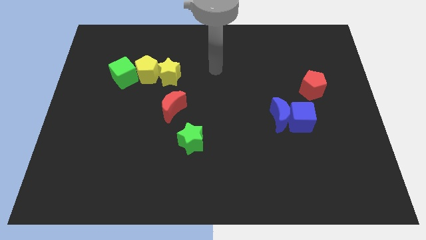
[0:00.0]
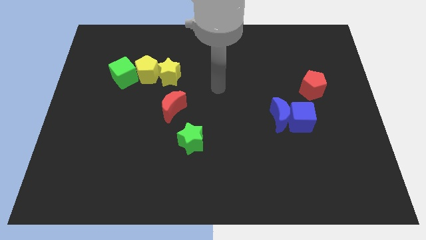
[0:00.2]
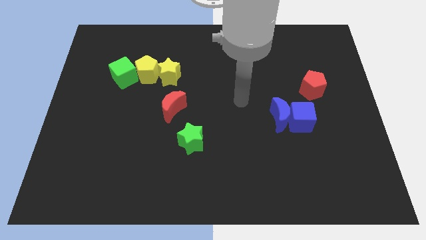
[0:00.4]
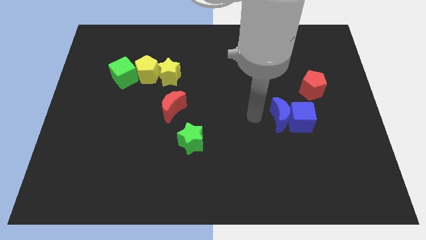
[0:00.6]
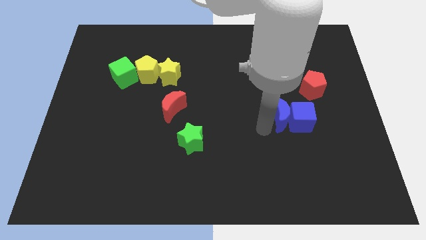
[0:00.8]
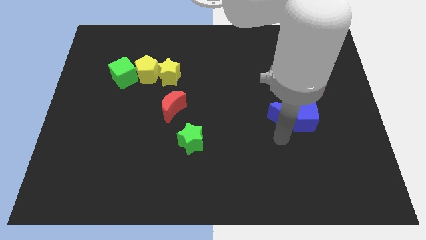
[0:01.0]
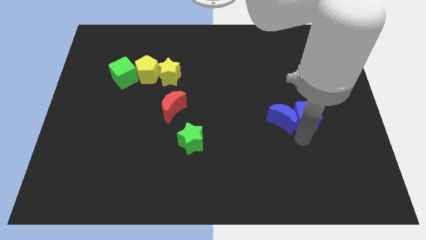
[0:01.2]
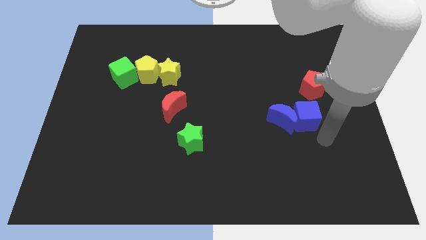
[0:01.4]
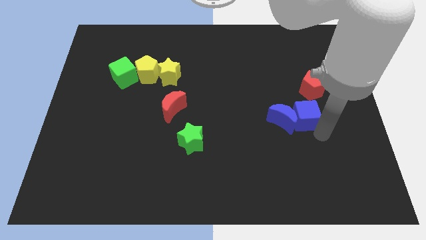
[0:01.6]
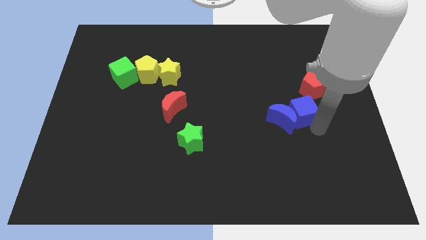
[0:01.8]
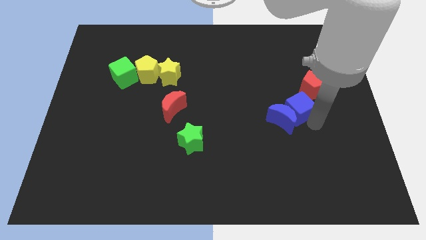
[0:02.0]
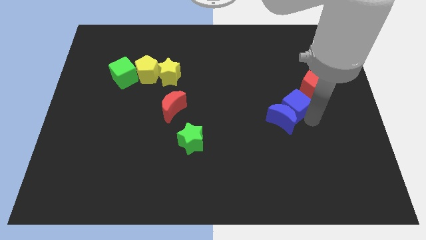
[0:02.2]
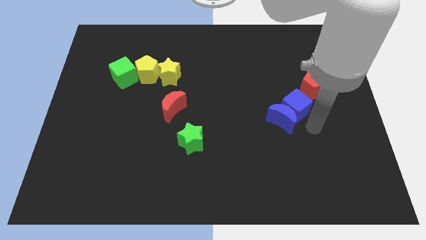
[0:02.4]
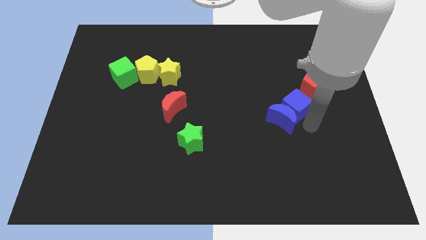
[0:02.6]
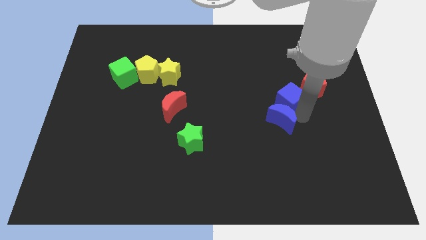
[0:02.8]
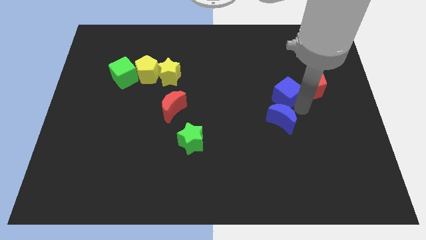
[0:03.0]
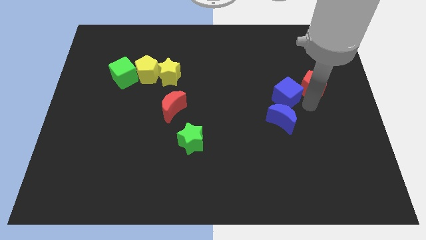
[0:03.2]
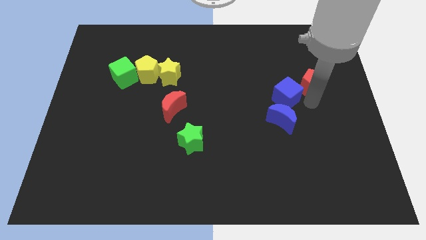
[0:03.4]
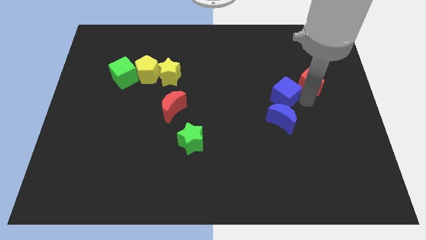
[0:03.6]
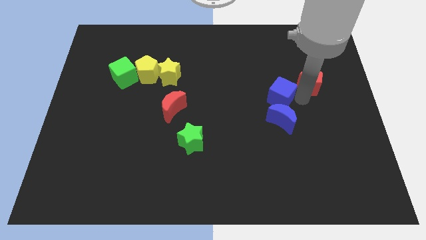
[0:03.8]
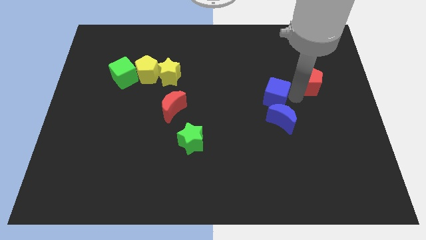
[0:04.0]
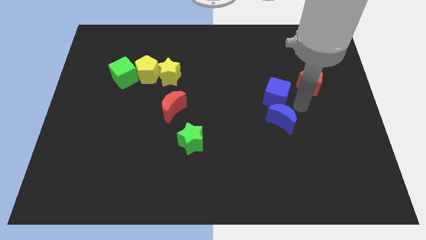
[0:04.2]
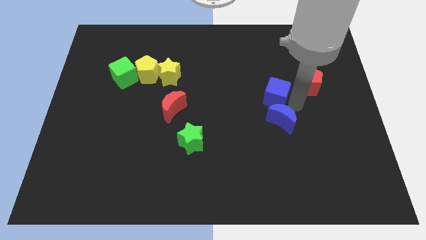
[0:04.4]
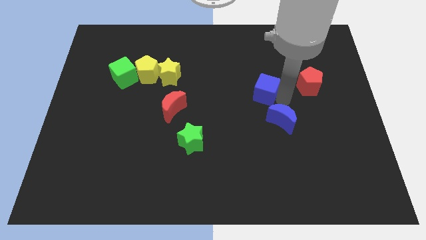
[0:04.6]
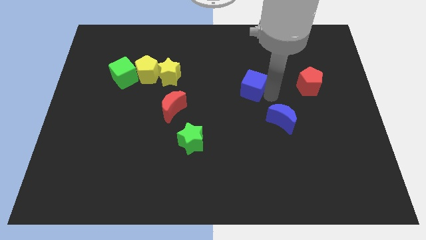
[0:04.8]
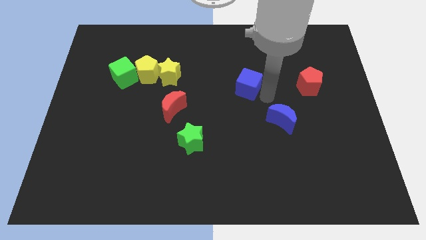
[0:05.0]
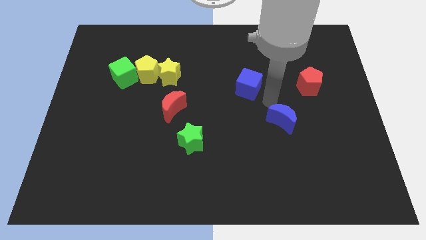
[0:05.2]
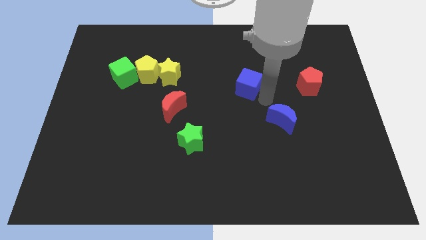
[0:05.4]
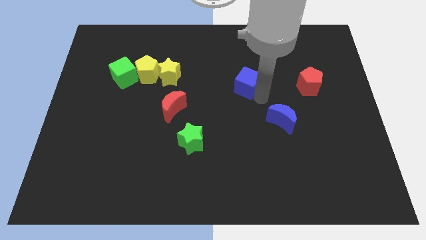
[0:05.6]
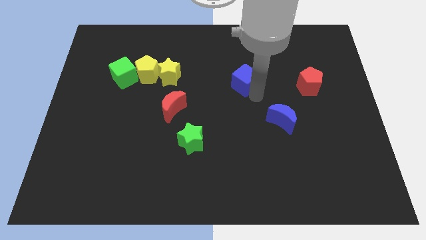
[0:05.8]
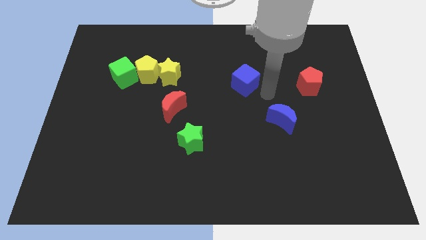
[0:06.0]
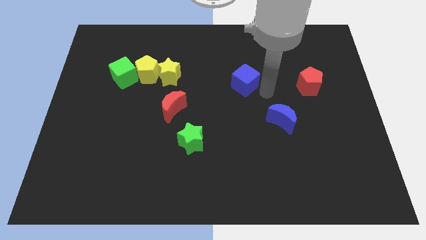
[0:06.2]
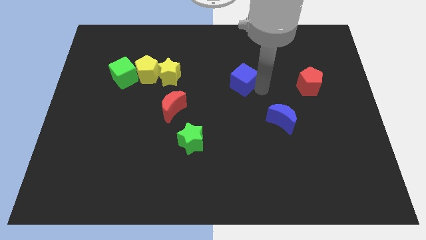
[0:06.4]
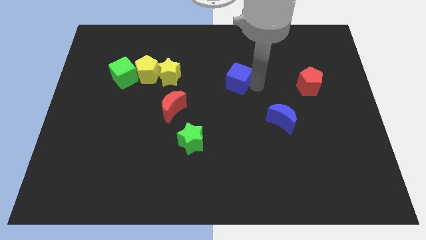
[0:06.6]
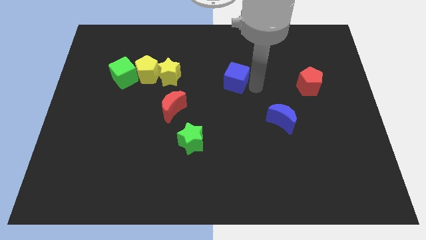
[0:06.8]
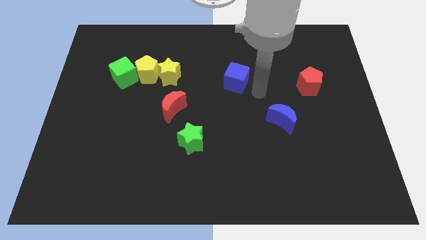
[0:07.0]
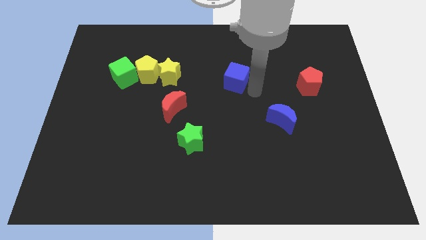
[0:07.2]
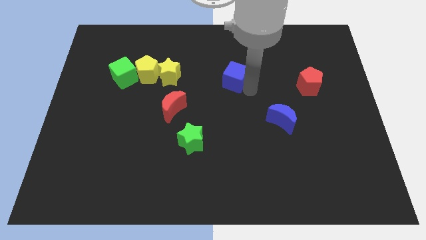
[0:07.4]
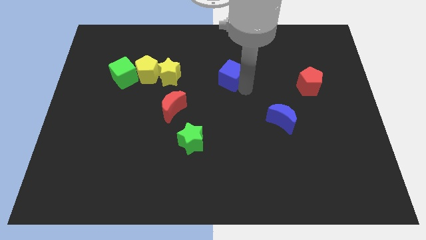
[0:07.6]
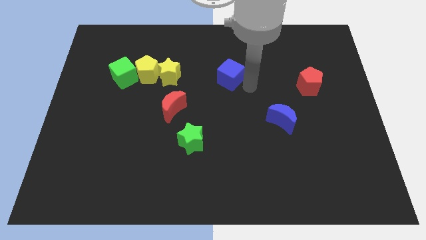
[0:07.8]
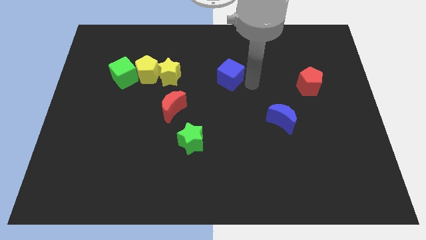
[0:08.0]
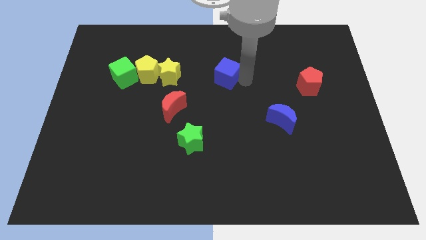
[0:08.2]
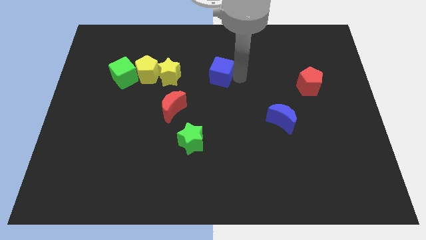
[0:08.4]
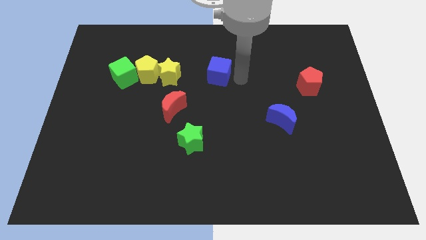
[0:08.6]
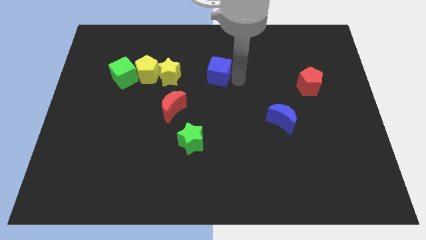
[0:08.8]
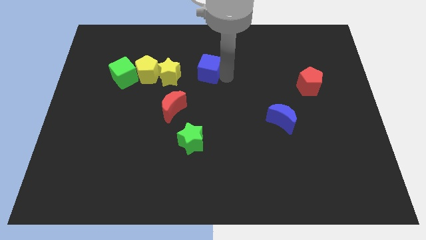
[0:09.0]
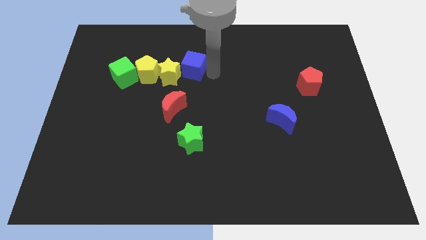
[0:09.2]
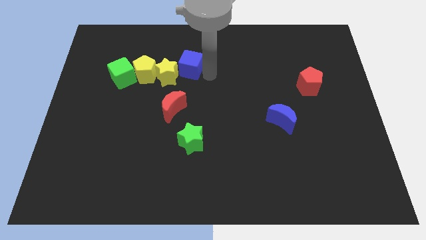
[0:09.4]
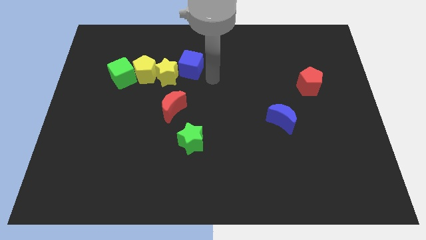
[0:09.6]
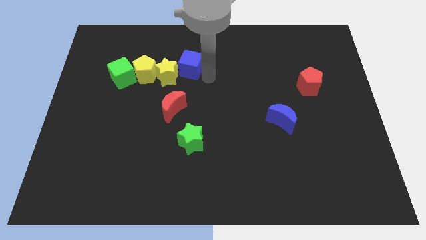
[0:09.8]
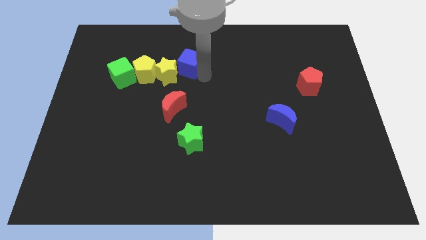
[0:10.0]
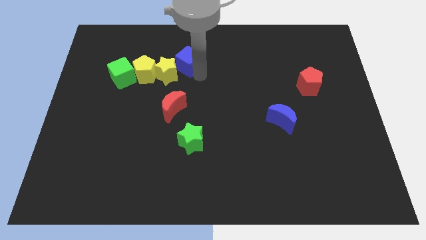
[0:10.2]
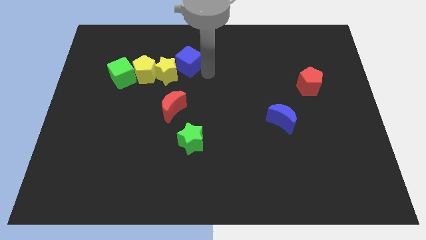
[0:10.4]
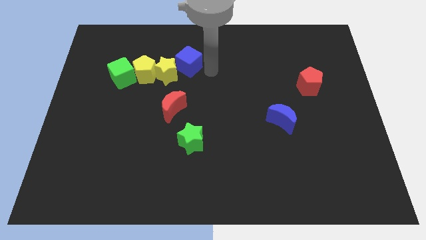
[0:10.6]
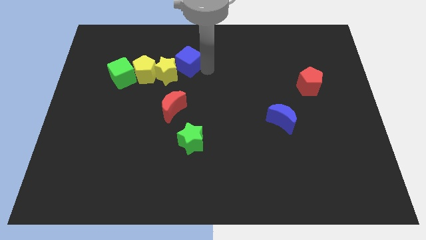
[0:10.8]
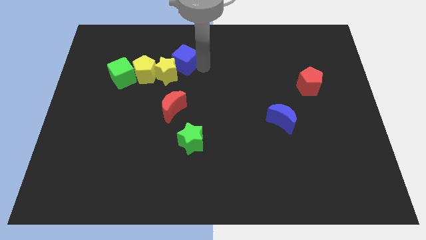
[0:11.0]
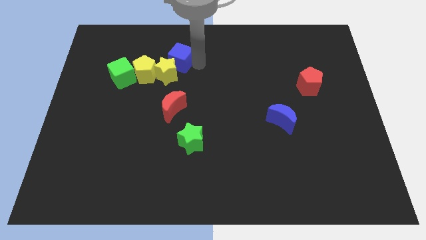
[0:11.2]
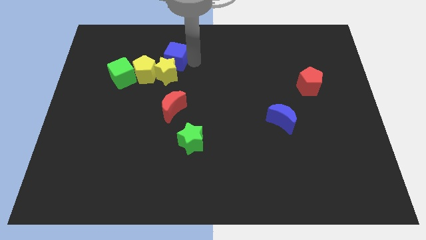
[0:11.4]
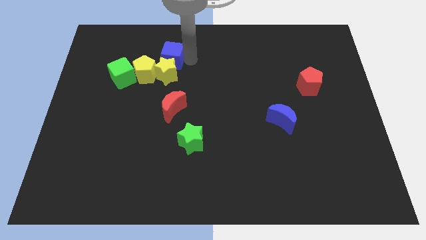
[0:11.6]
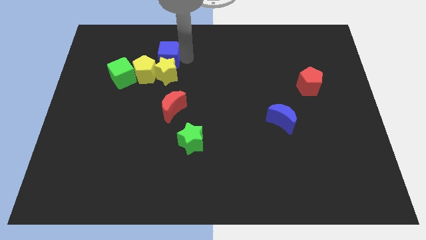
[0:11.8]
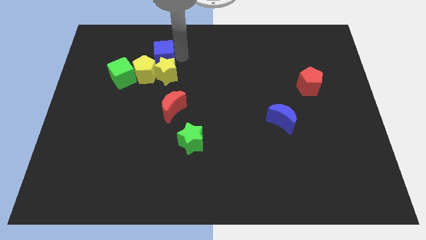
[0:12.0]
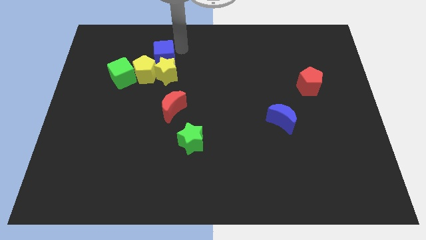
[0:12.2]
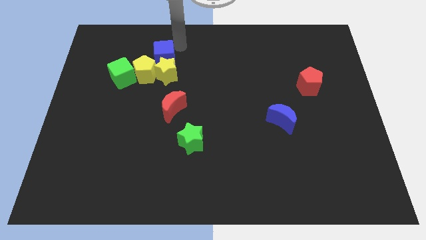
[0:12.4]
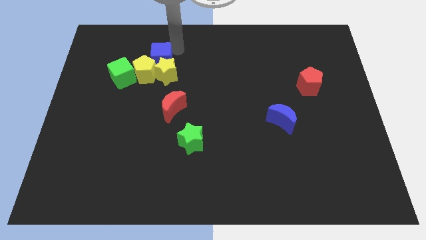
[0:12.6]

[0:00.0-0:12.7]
put the blue cube to the yellow pentagon
